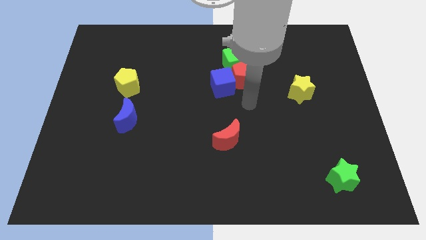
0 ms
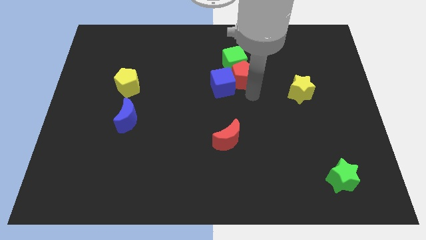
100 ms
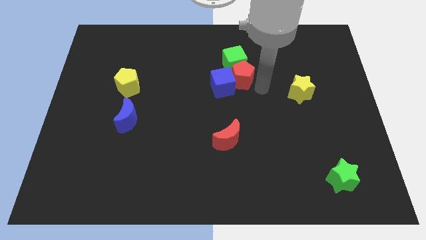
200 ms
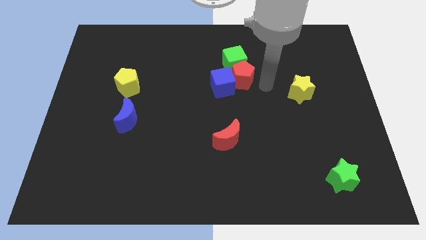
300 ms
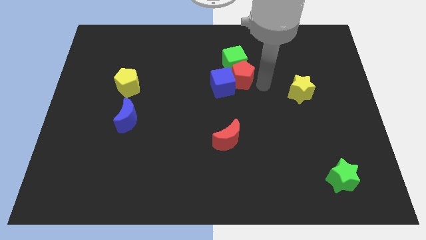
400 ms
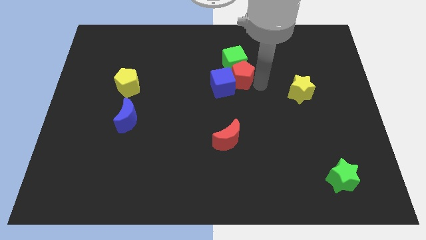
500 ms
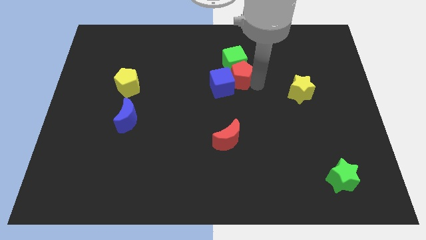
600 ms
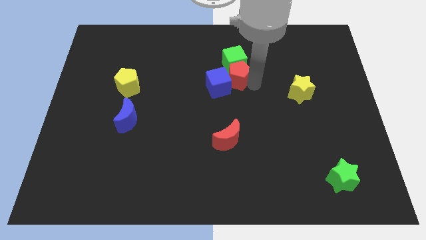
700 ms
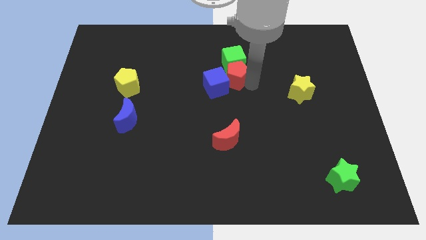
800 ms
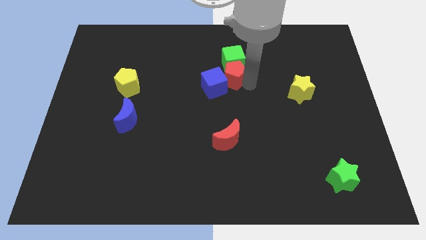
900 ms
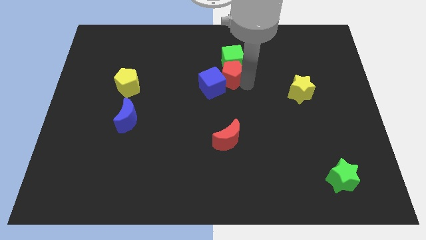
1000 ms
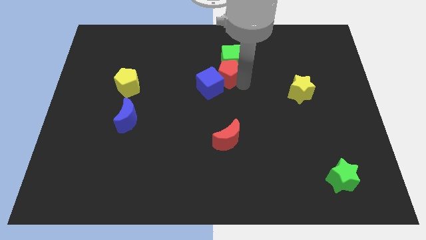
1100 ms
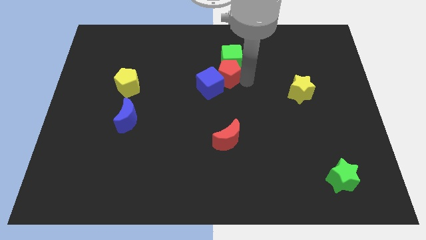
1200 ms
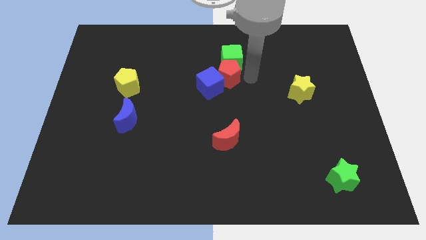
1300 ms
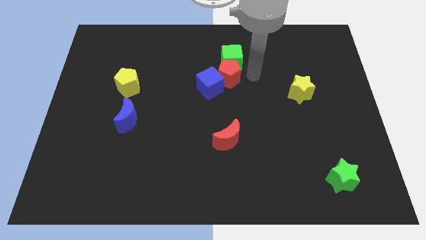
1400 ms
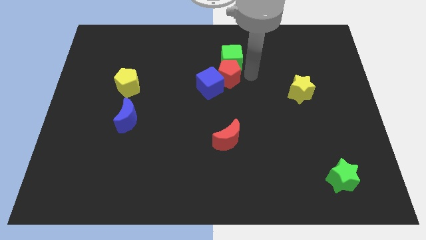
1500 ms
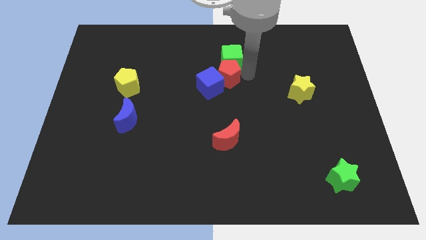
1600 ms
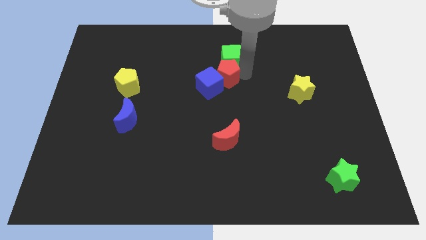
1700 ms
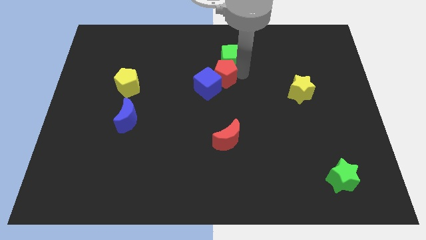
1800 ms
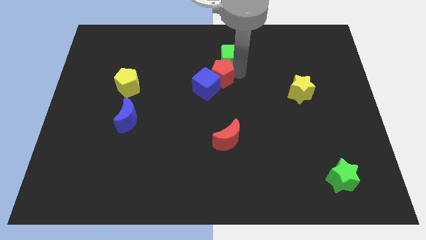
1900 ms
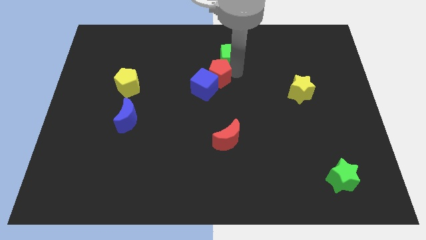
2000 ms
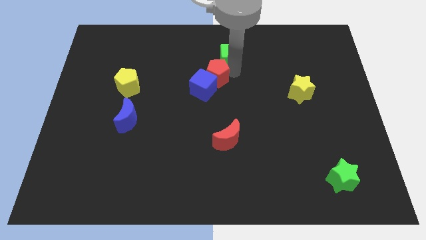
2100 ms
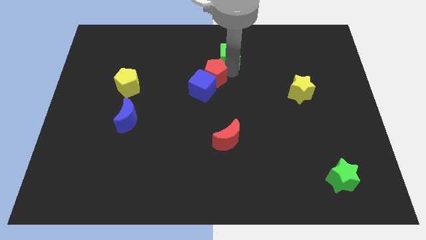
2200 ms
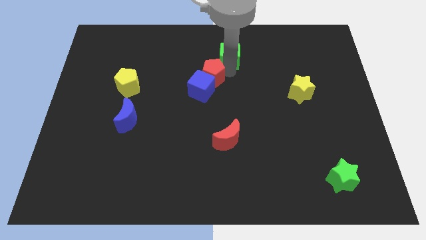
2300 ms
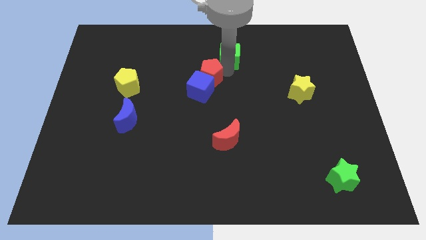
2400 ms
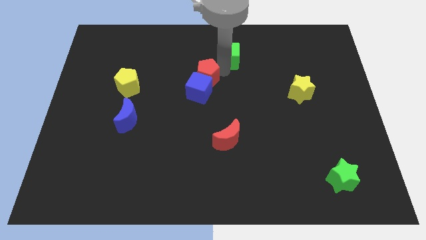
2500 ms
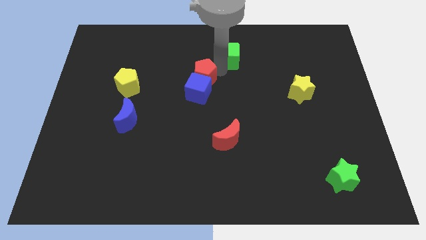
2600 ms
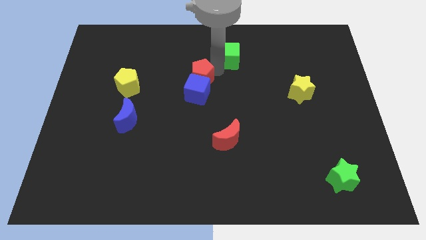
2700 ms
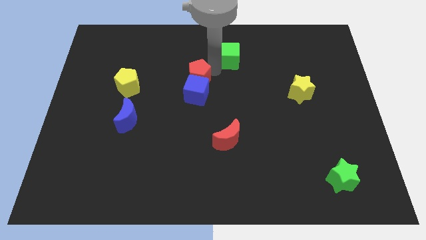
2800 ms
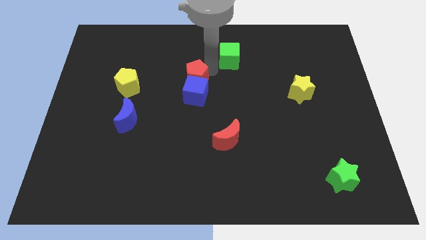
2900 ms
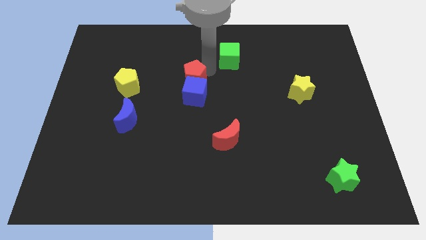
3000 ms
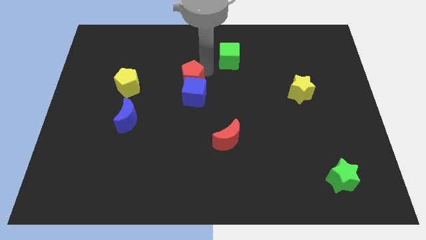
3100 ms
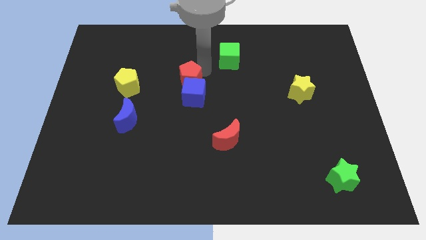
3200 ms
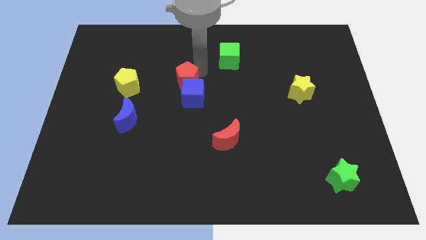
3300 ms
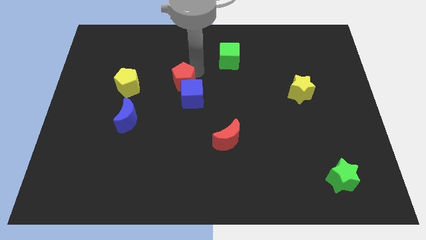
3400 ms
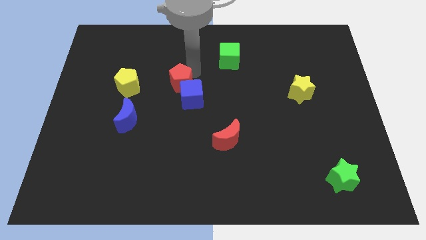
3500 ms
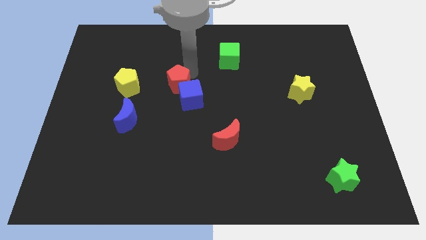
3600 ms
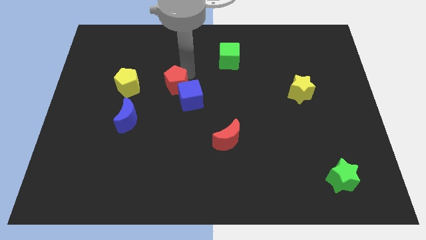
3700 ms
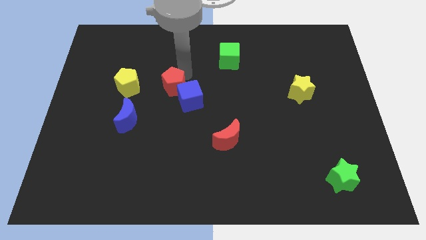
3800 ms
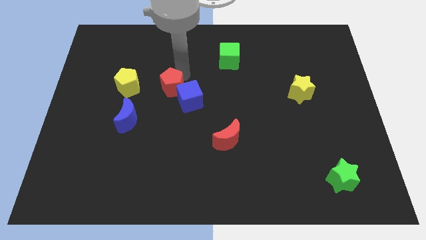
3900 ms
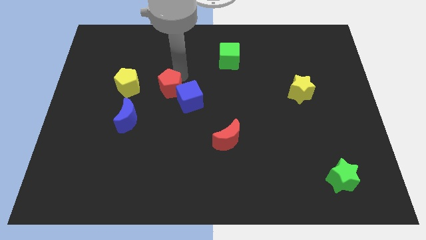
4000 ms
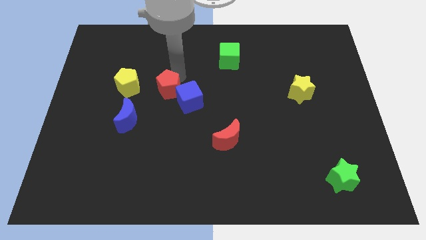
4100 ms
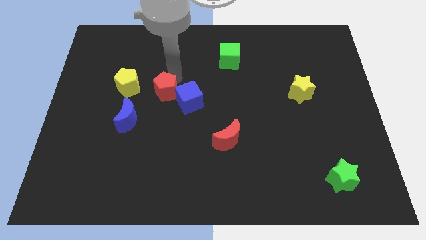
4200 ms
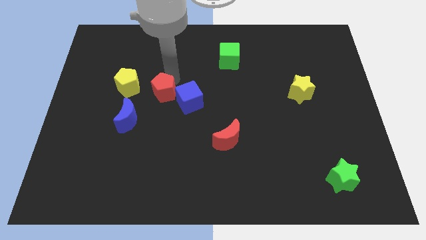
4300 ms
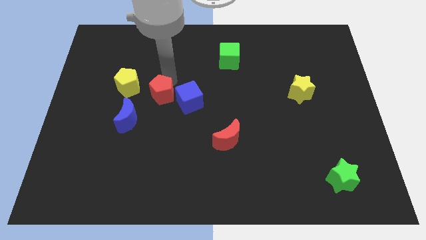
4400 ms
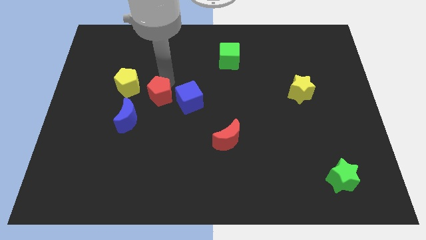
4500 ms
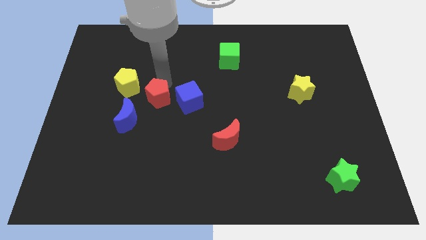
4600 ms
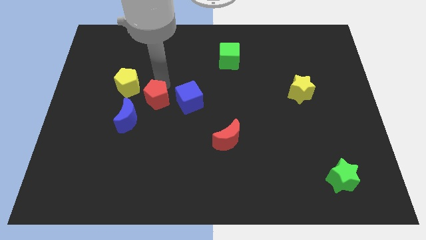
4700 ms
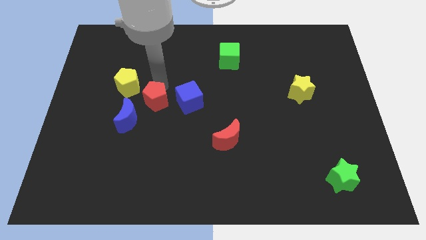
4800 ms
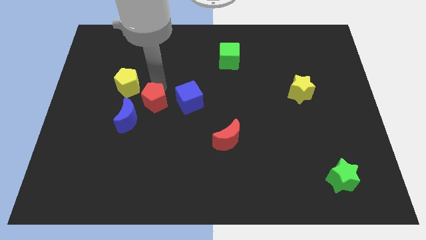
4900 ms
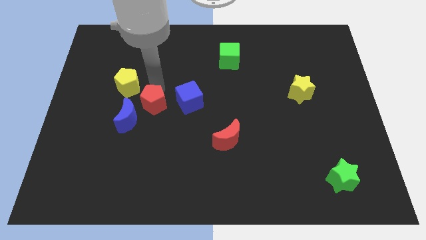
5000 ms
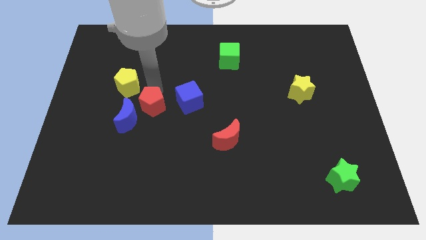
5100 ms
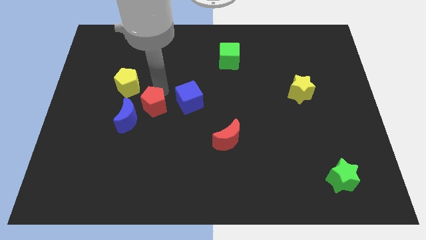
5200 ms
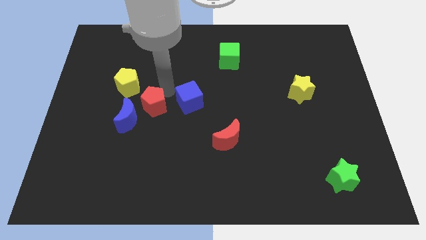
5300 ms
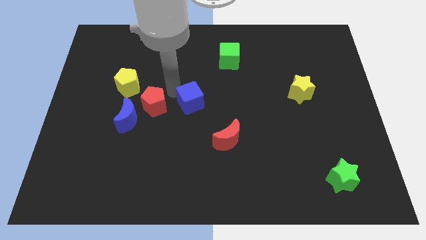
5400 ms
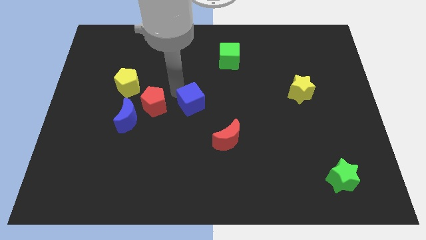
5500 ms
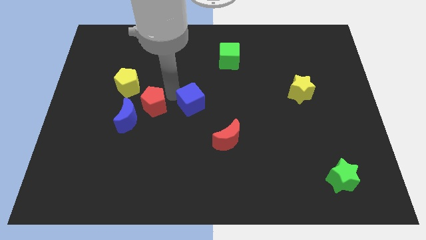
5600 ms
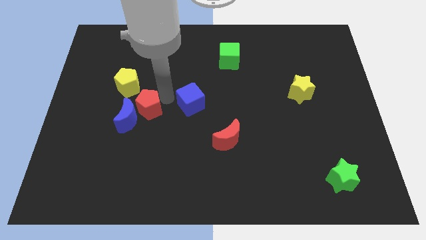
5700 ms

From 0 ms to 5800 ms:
push the red pentagon towards the blue moon

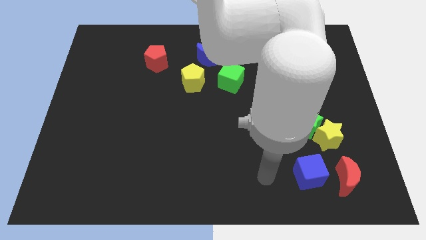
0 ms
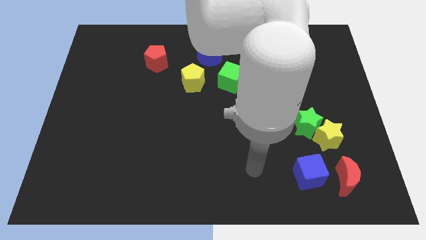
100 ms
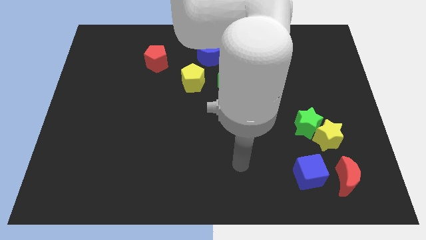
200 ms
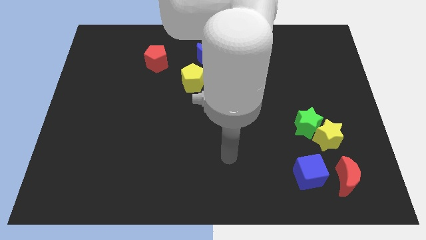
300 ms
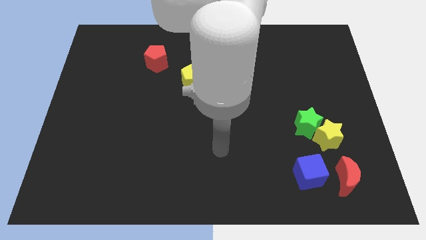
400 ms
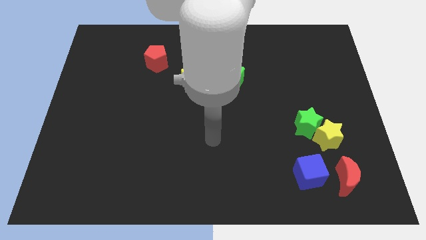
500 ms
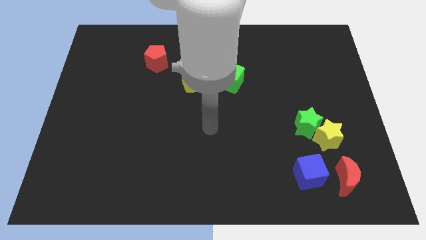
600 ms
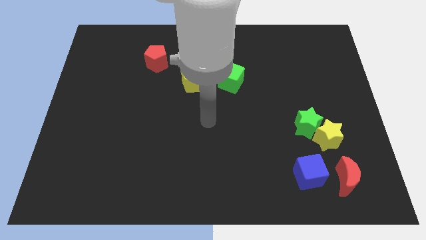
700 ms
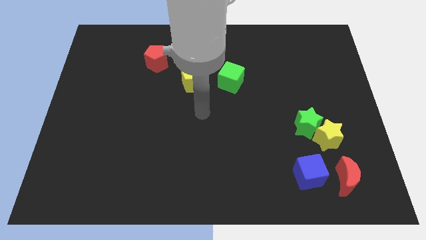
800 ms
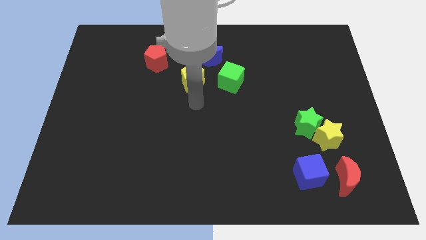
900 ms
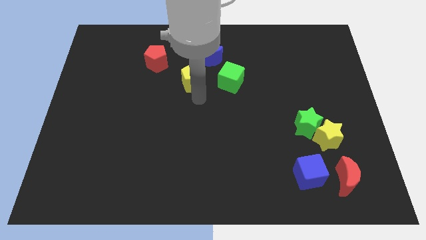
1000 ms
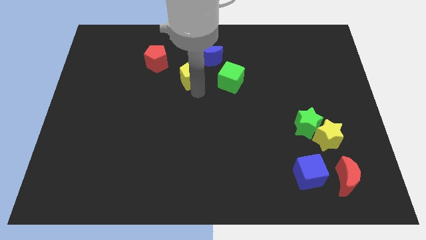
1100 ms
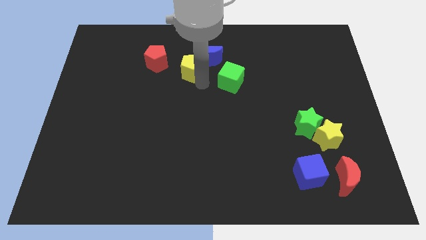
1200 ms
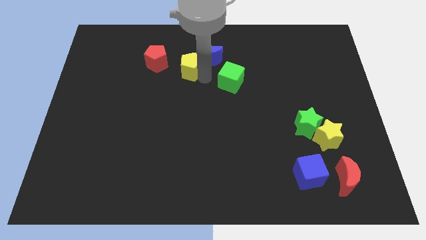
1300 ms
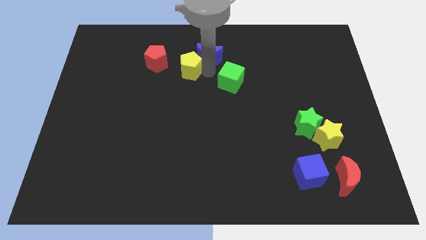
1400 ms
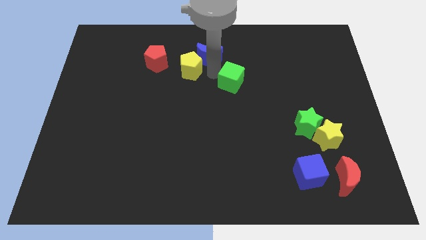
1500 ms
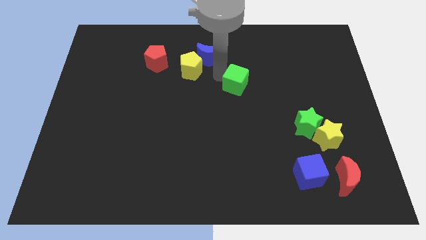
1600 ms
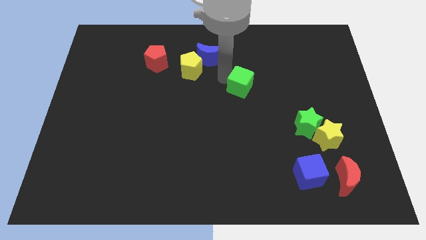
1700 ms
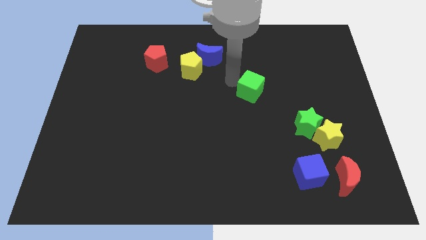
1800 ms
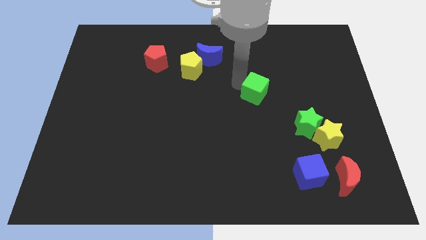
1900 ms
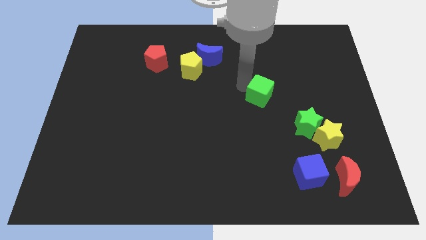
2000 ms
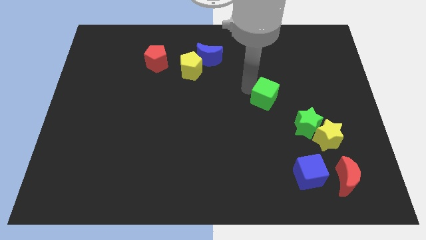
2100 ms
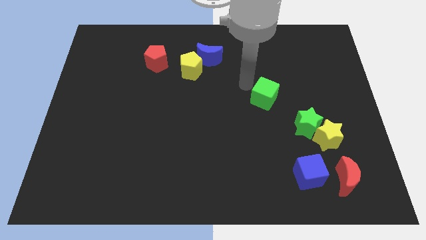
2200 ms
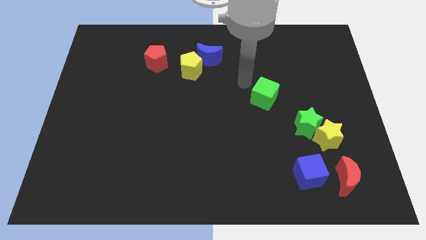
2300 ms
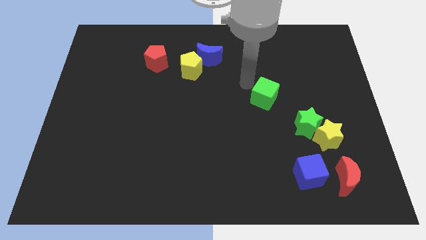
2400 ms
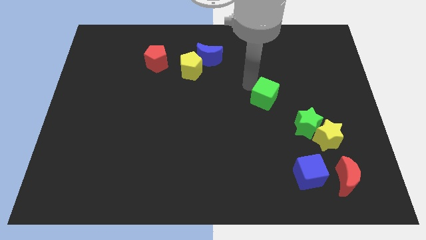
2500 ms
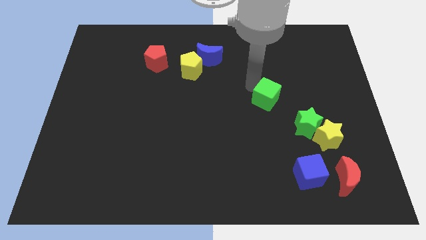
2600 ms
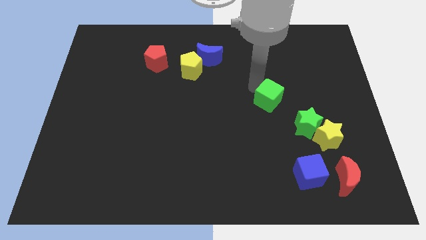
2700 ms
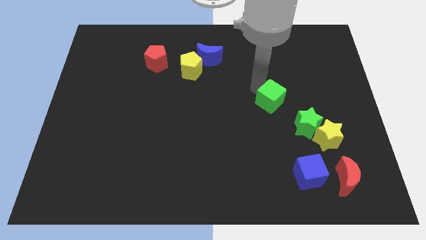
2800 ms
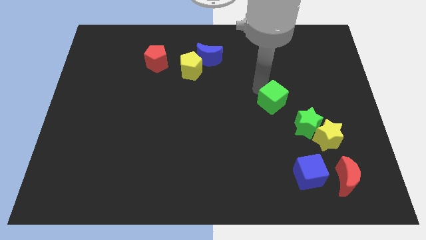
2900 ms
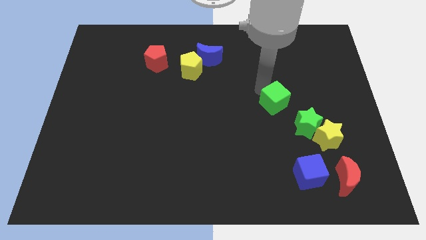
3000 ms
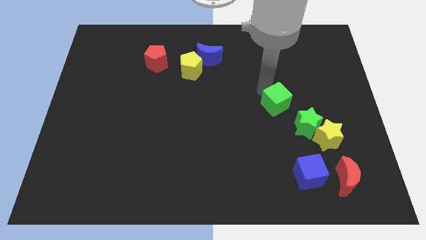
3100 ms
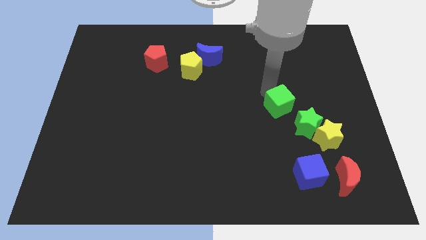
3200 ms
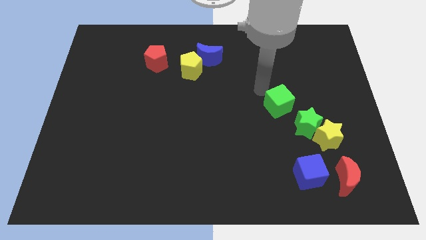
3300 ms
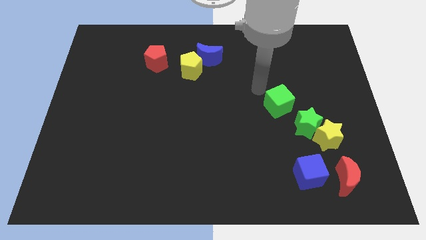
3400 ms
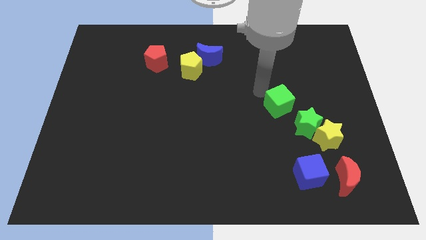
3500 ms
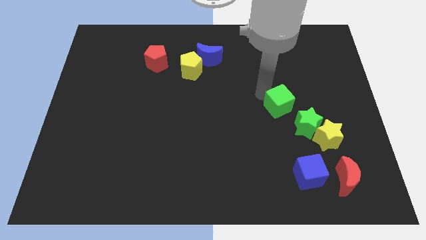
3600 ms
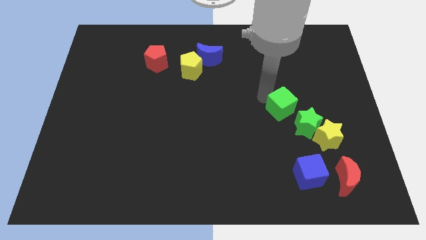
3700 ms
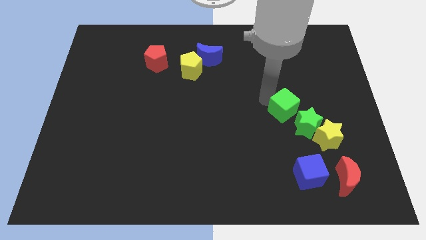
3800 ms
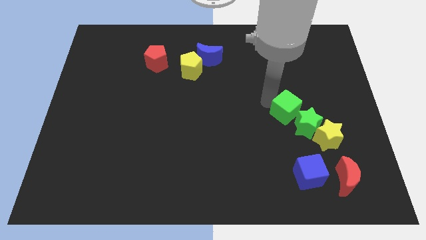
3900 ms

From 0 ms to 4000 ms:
move the green cube next to the green star
